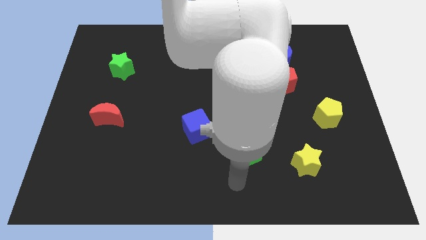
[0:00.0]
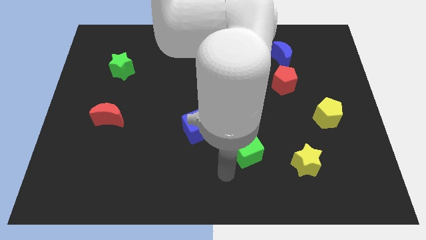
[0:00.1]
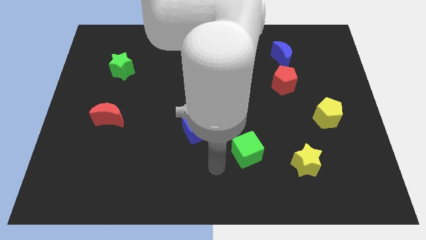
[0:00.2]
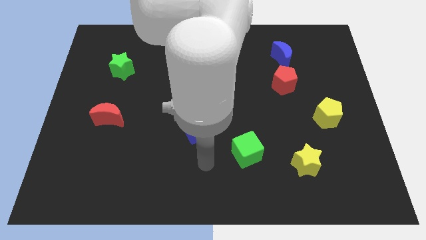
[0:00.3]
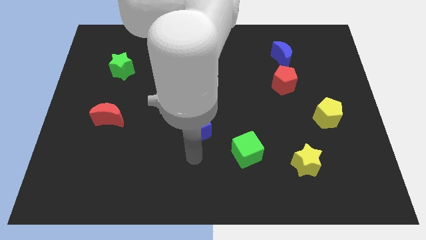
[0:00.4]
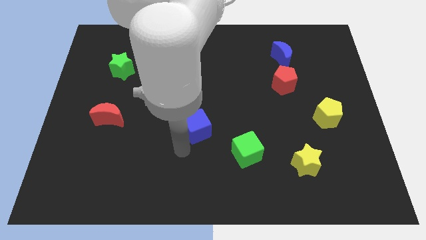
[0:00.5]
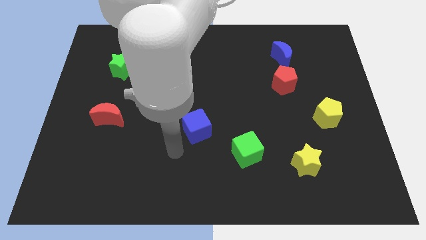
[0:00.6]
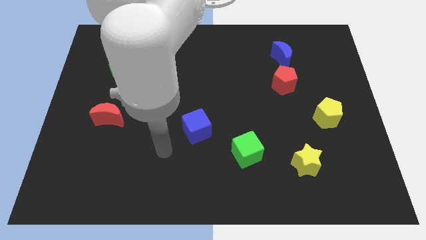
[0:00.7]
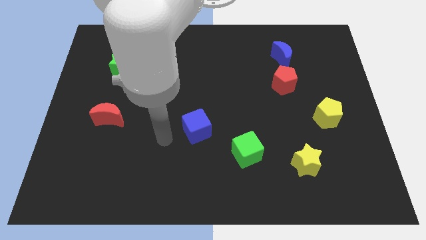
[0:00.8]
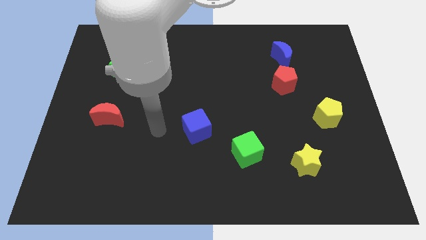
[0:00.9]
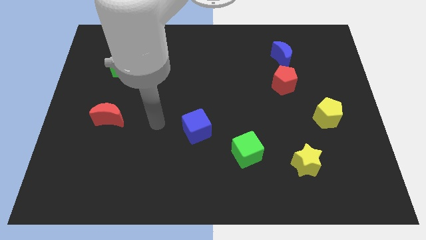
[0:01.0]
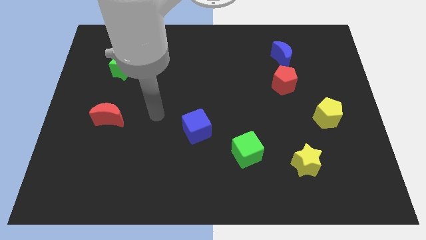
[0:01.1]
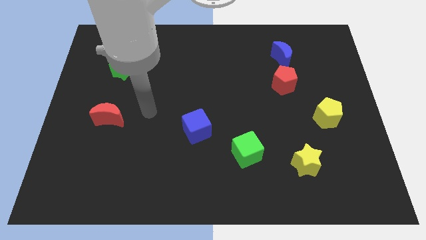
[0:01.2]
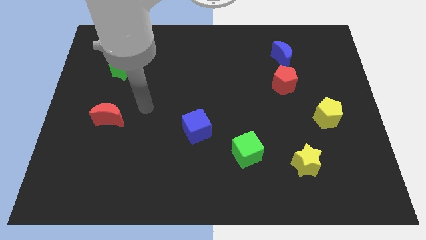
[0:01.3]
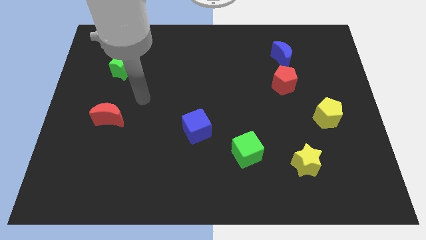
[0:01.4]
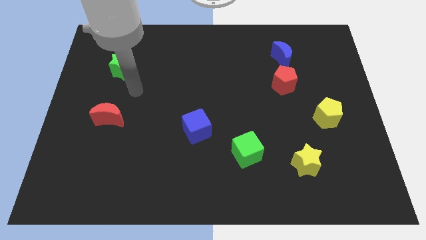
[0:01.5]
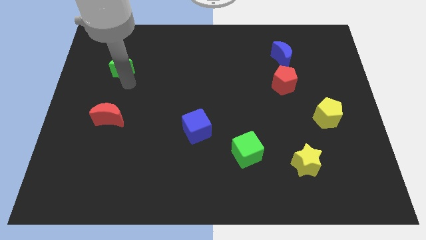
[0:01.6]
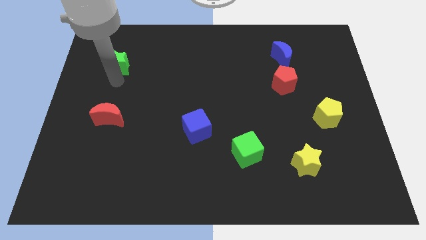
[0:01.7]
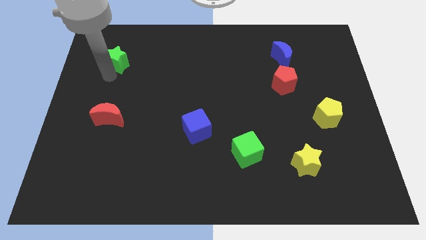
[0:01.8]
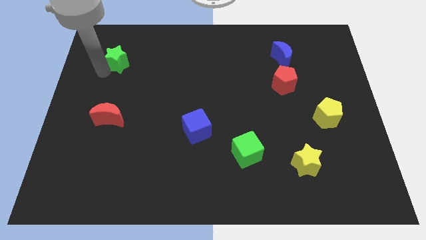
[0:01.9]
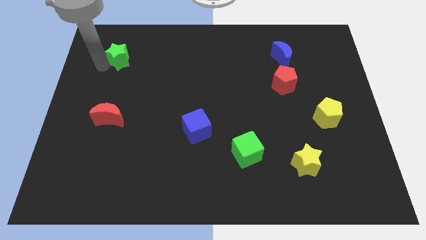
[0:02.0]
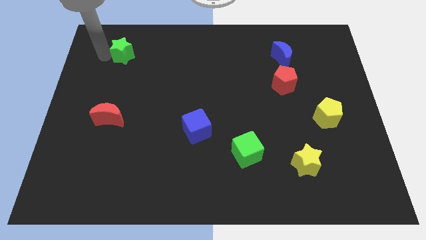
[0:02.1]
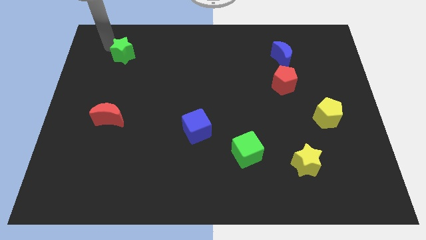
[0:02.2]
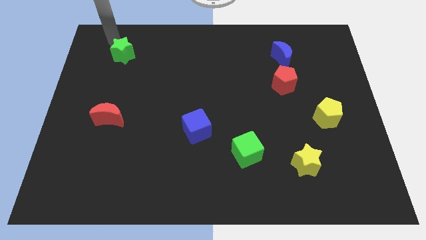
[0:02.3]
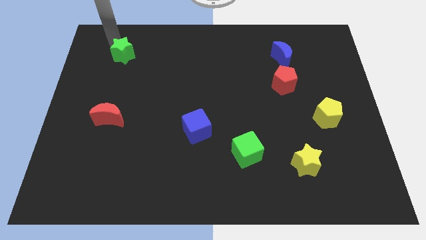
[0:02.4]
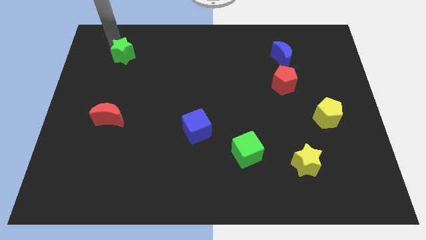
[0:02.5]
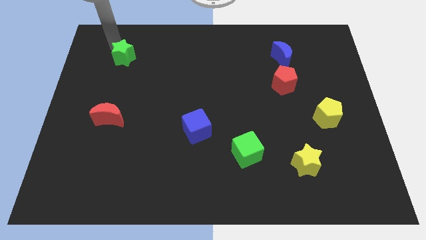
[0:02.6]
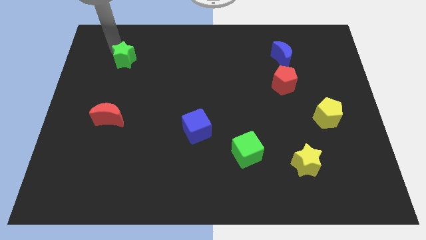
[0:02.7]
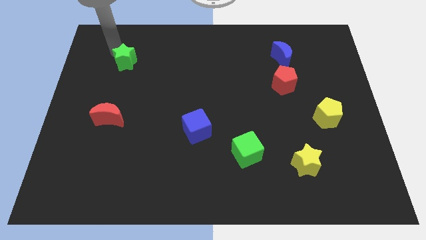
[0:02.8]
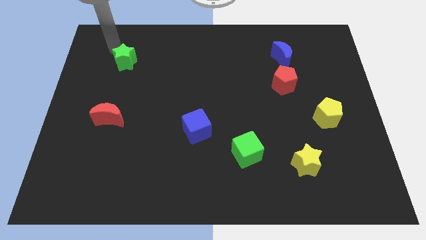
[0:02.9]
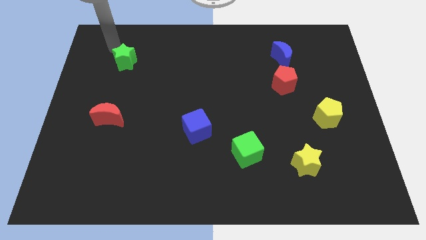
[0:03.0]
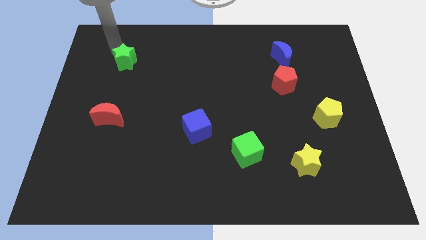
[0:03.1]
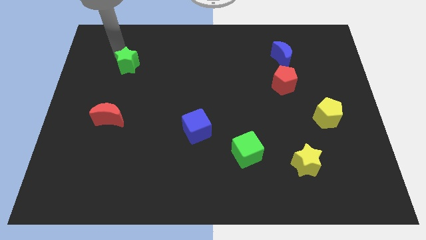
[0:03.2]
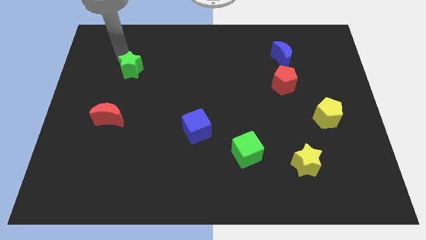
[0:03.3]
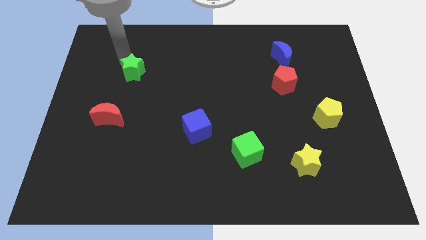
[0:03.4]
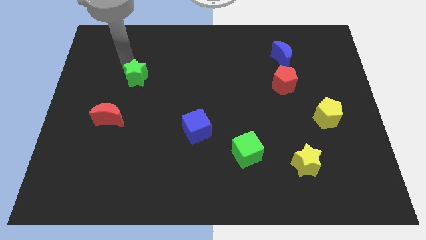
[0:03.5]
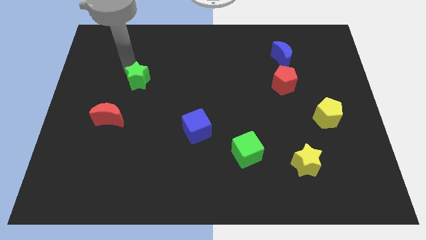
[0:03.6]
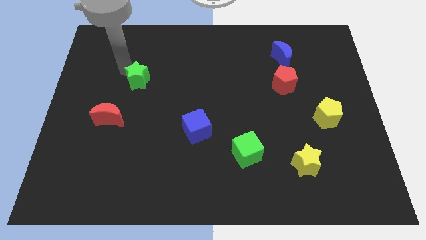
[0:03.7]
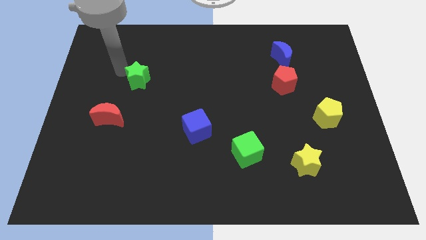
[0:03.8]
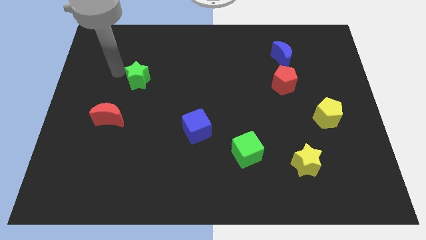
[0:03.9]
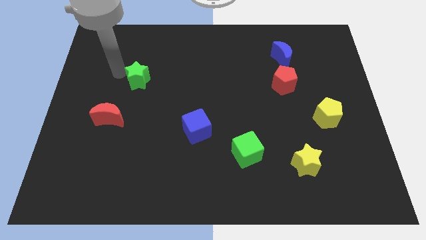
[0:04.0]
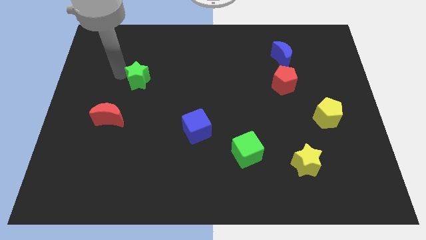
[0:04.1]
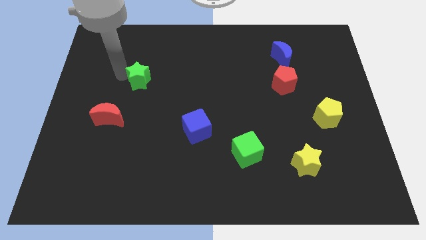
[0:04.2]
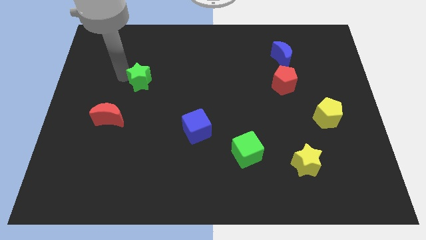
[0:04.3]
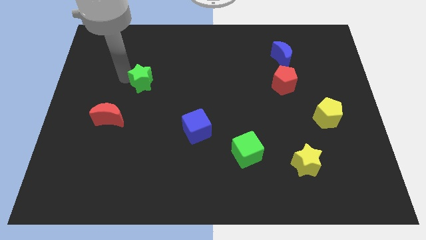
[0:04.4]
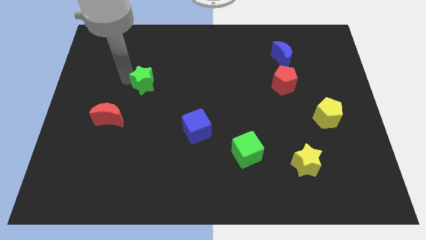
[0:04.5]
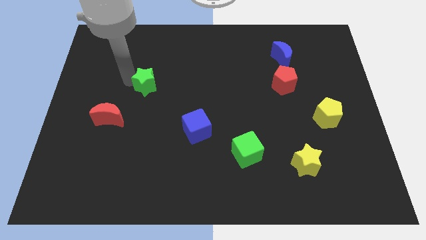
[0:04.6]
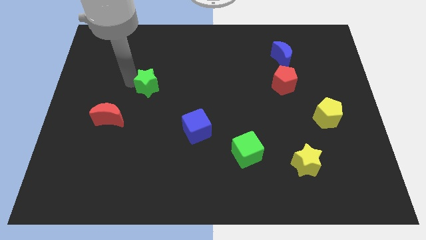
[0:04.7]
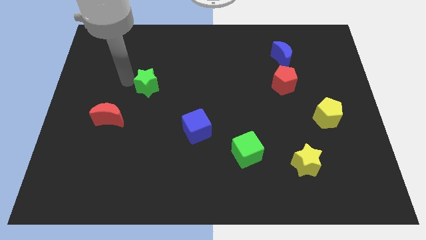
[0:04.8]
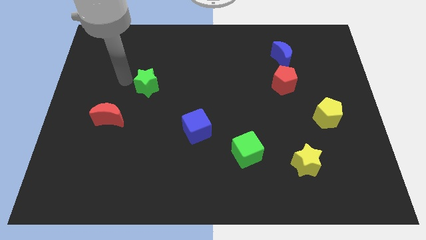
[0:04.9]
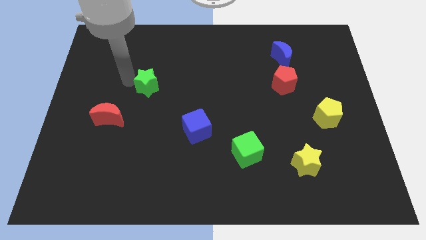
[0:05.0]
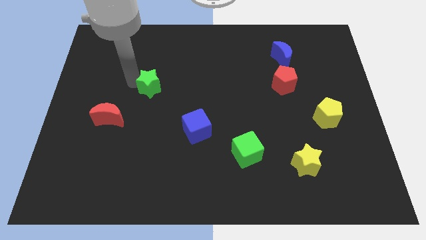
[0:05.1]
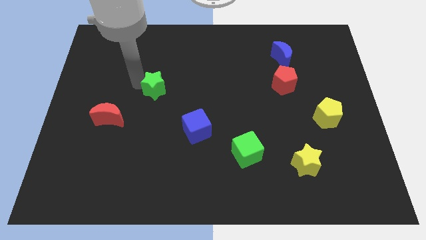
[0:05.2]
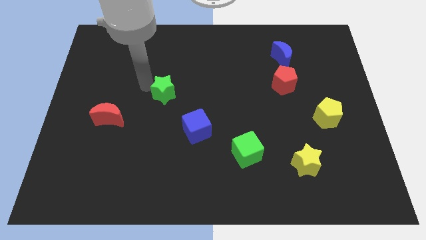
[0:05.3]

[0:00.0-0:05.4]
put the green star to the center of the board

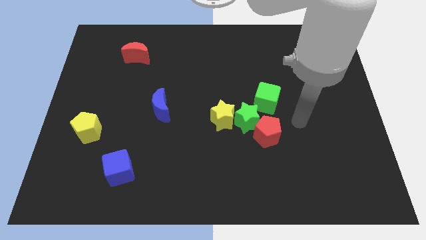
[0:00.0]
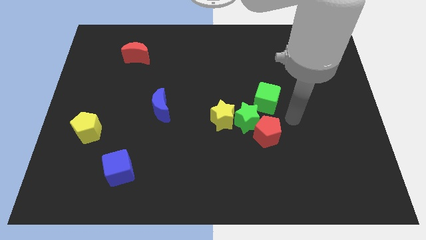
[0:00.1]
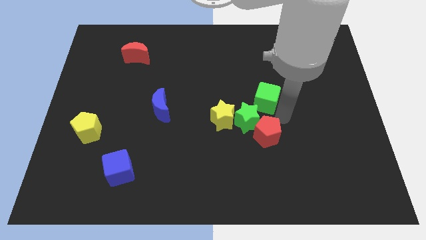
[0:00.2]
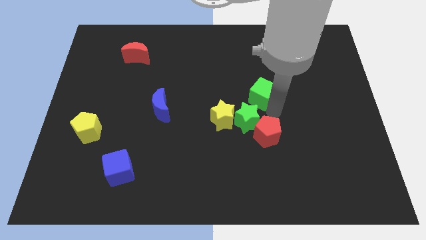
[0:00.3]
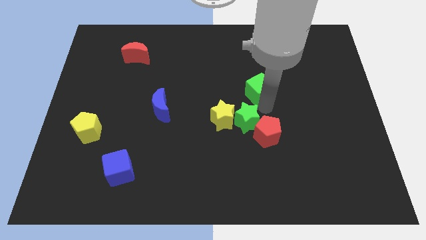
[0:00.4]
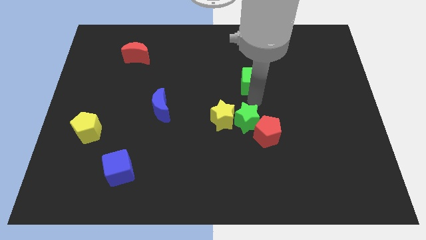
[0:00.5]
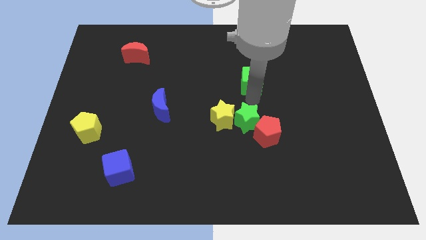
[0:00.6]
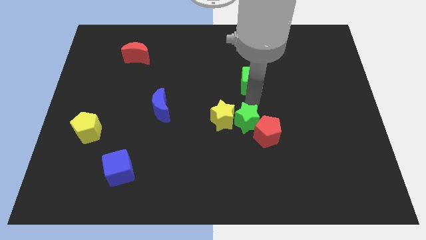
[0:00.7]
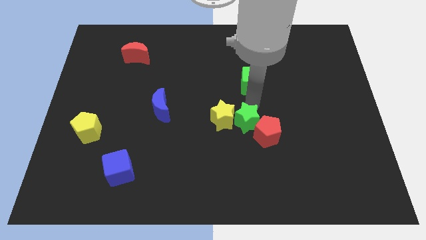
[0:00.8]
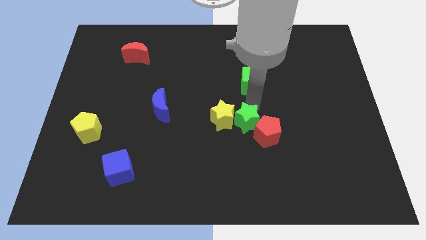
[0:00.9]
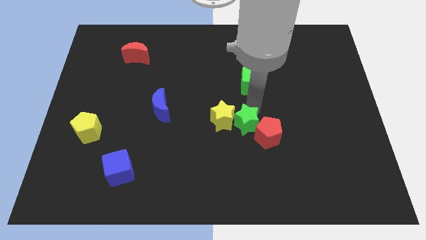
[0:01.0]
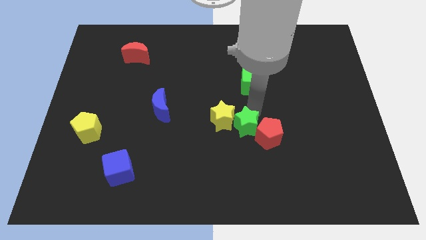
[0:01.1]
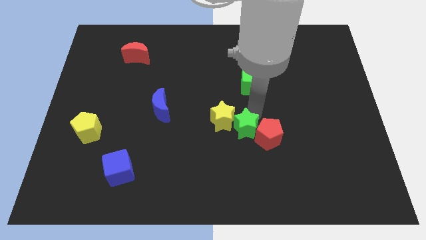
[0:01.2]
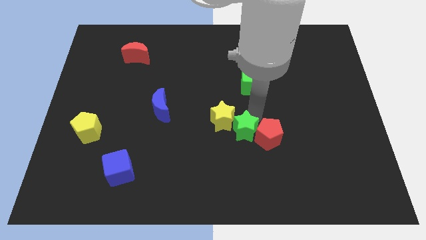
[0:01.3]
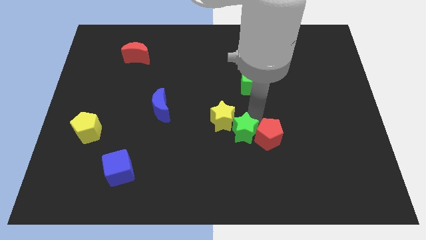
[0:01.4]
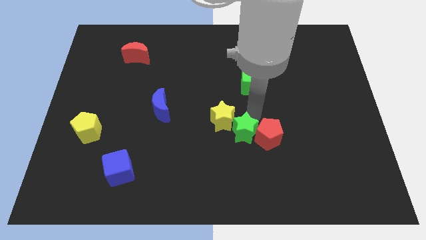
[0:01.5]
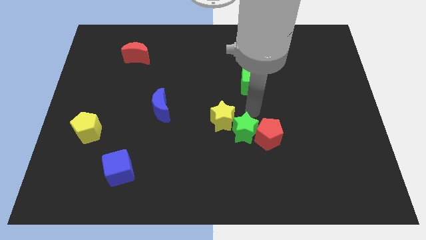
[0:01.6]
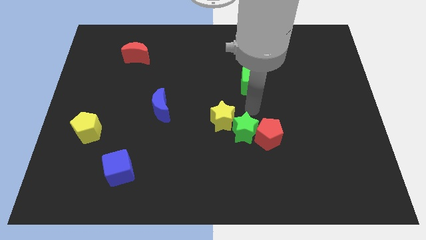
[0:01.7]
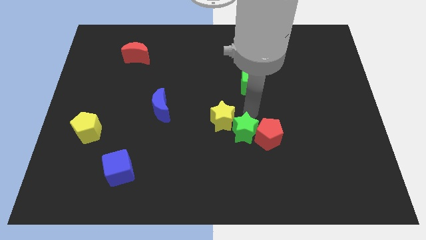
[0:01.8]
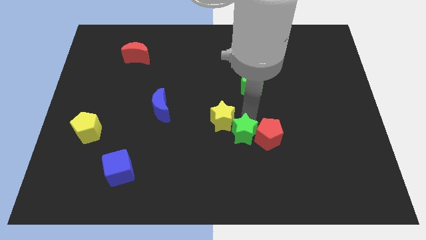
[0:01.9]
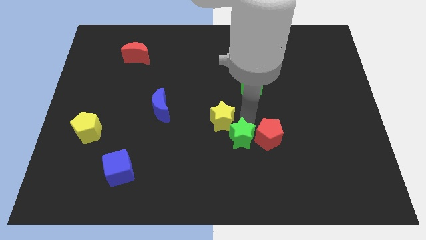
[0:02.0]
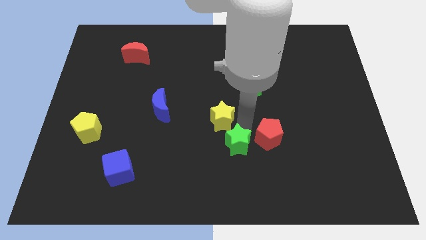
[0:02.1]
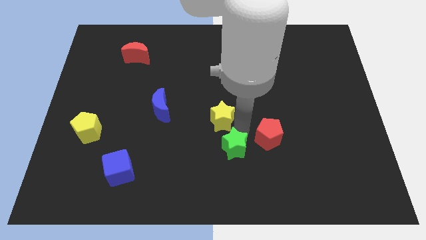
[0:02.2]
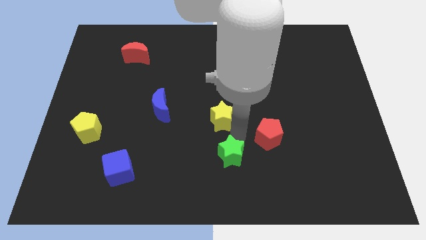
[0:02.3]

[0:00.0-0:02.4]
move the green star to the bottom side
